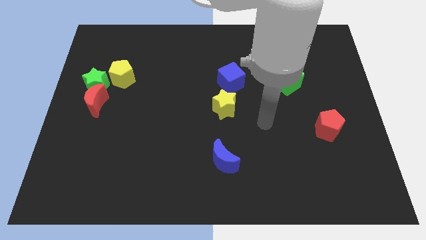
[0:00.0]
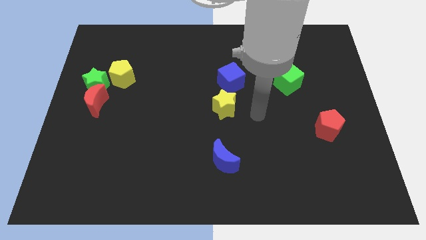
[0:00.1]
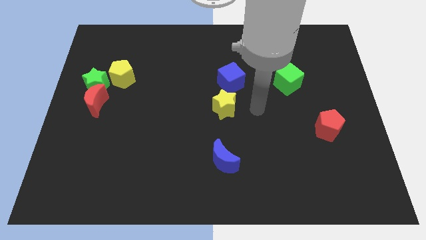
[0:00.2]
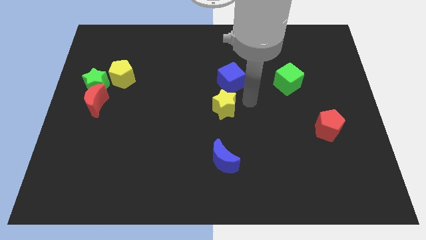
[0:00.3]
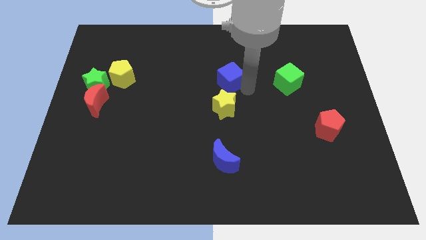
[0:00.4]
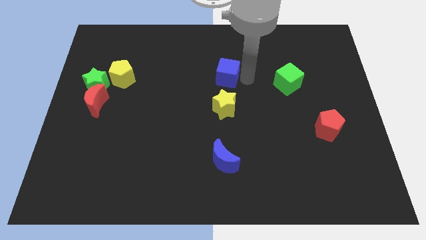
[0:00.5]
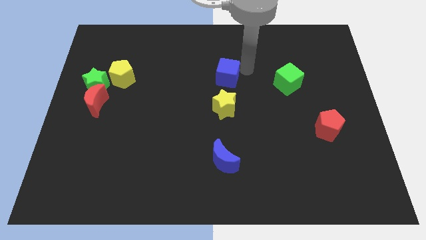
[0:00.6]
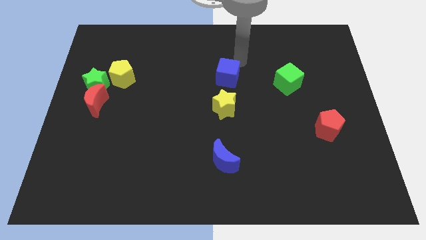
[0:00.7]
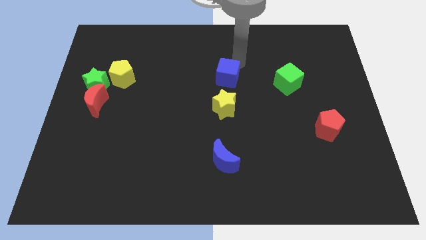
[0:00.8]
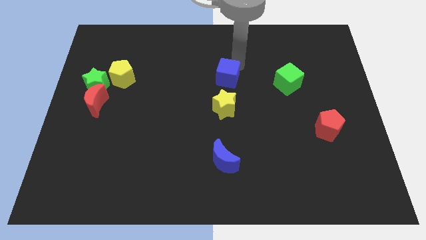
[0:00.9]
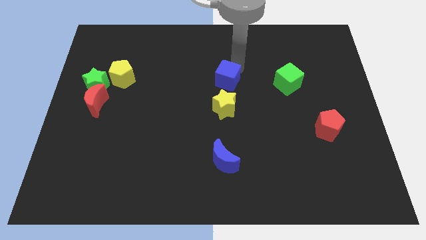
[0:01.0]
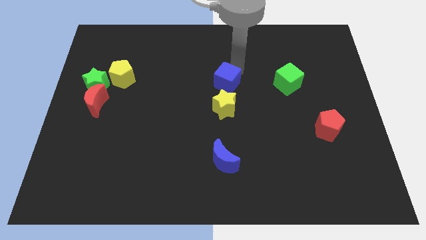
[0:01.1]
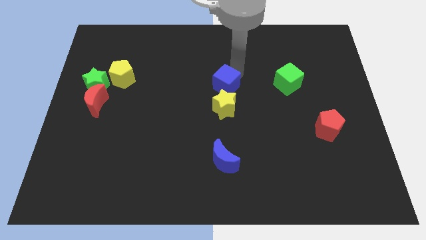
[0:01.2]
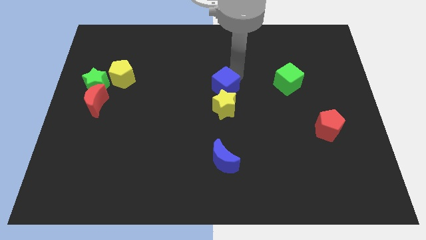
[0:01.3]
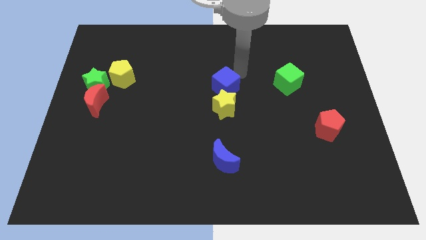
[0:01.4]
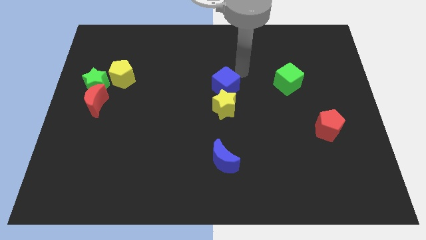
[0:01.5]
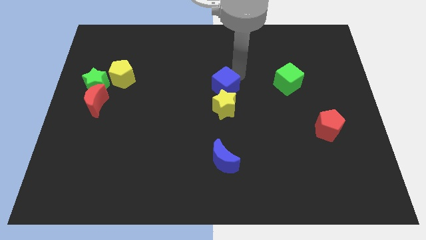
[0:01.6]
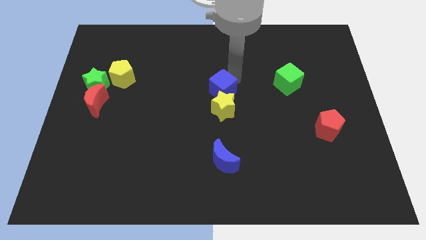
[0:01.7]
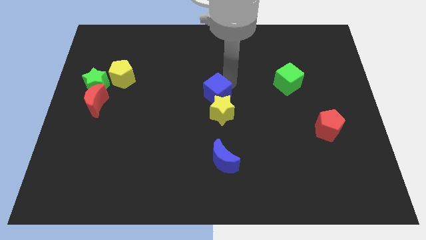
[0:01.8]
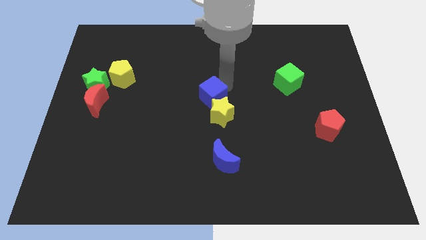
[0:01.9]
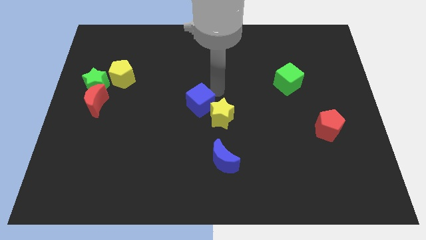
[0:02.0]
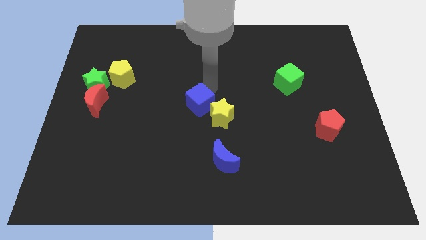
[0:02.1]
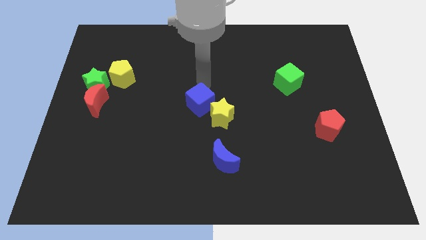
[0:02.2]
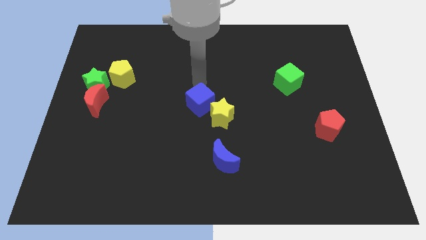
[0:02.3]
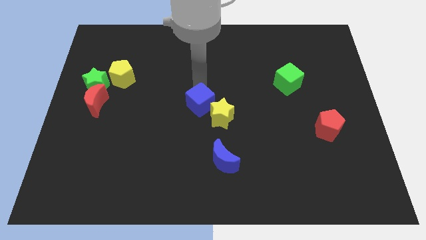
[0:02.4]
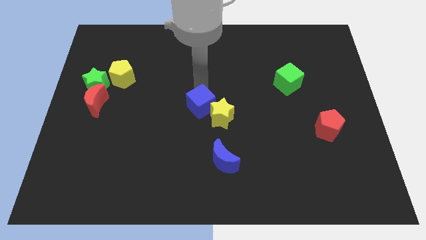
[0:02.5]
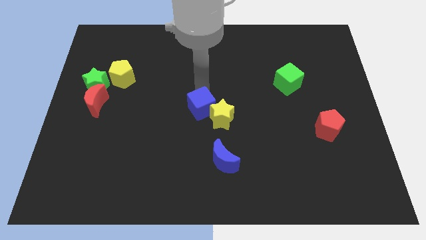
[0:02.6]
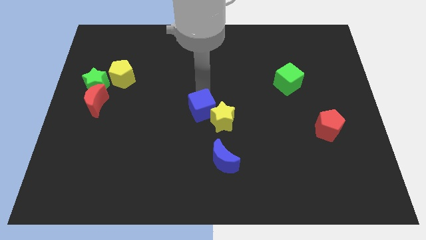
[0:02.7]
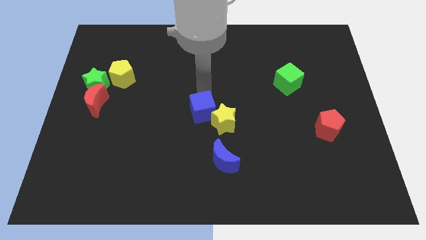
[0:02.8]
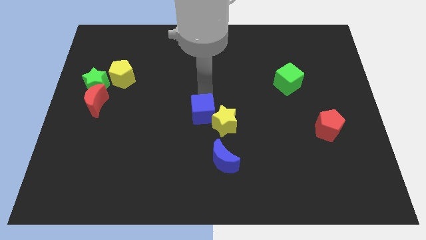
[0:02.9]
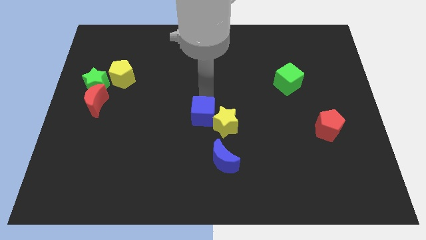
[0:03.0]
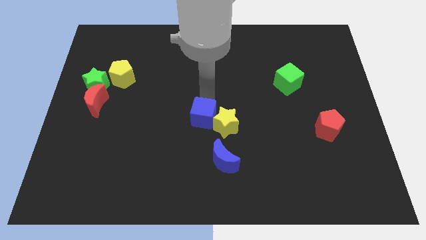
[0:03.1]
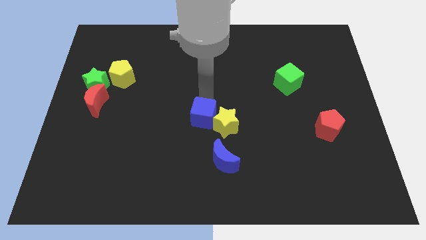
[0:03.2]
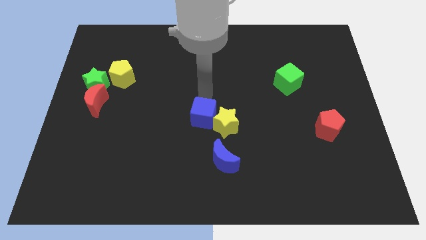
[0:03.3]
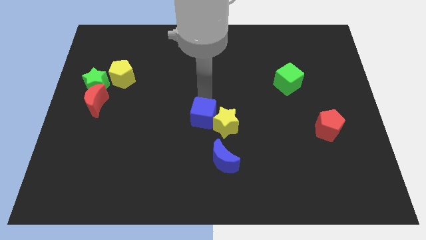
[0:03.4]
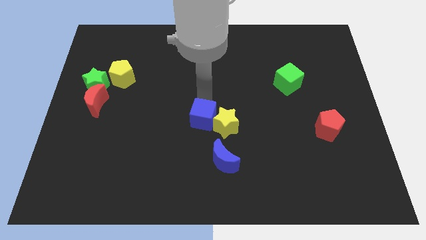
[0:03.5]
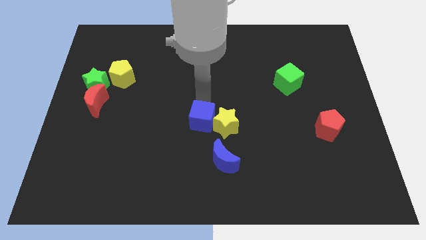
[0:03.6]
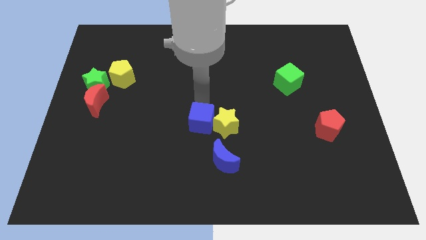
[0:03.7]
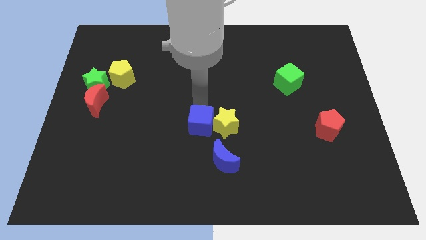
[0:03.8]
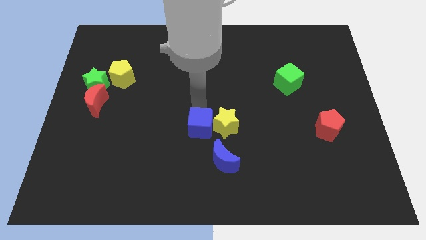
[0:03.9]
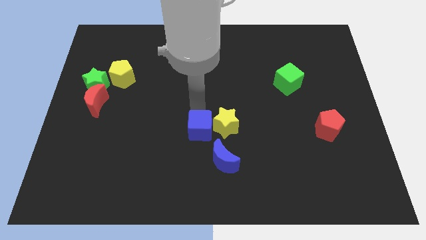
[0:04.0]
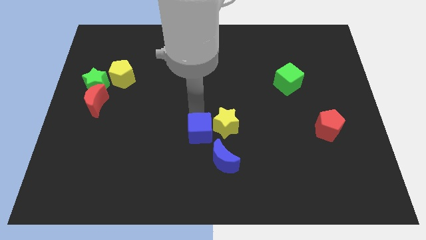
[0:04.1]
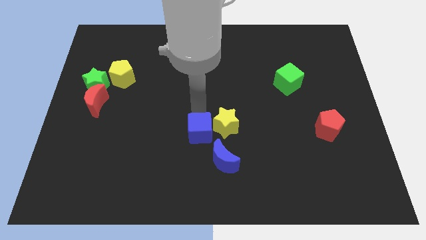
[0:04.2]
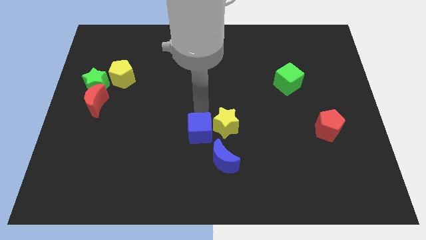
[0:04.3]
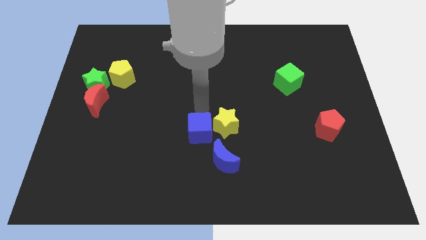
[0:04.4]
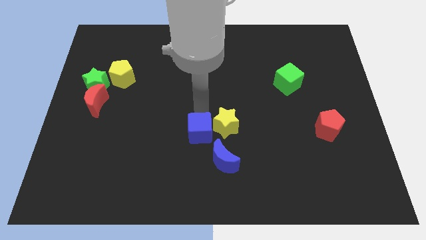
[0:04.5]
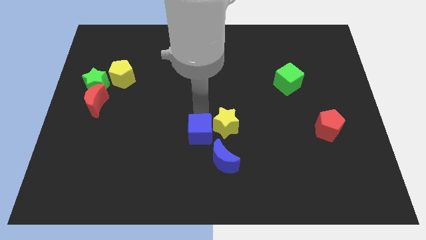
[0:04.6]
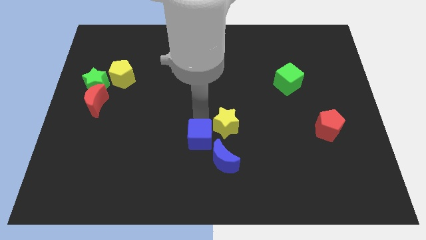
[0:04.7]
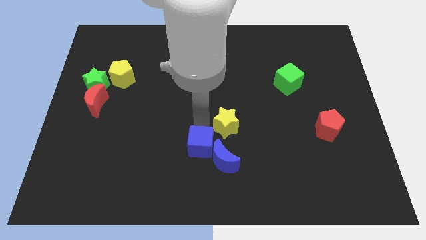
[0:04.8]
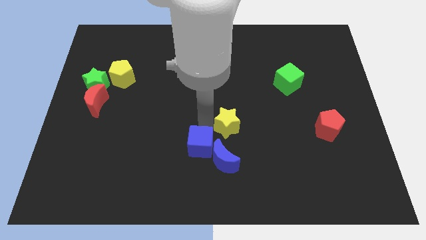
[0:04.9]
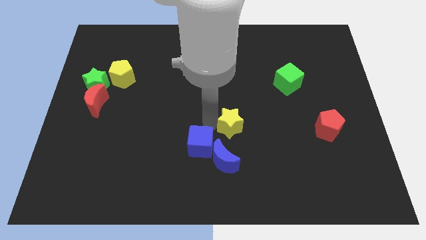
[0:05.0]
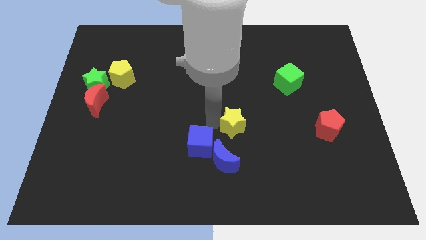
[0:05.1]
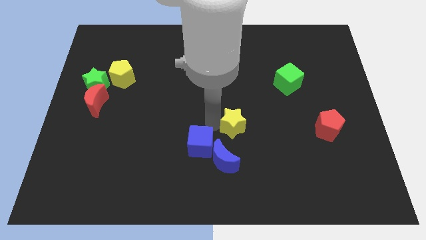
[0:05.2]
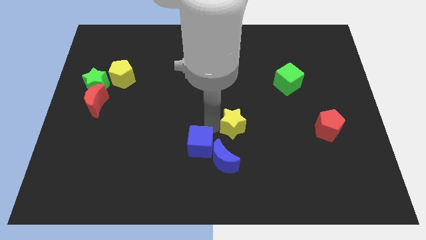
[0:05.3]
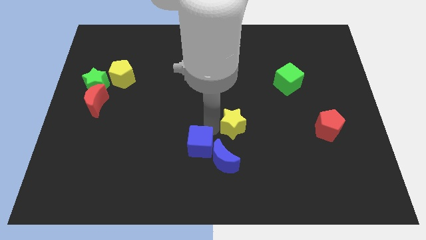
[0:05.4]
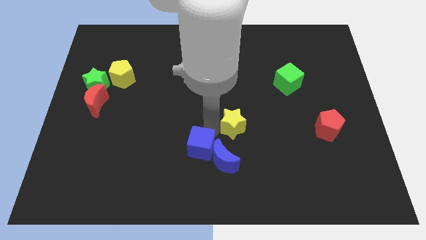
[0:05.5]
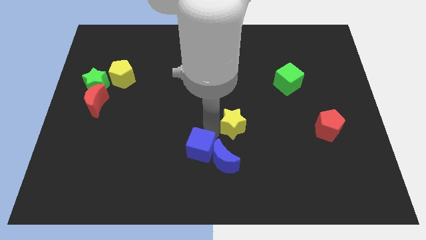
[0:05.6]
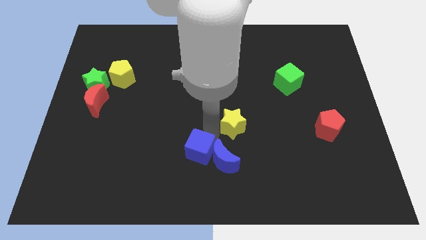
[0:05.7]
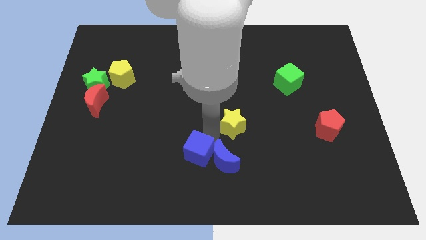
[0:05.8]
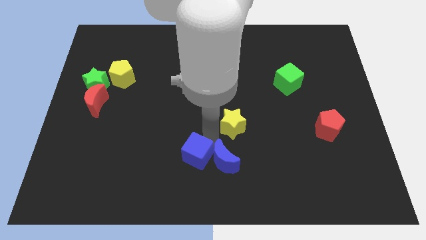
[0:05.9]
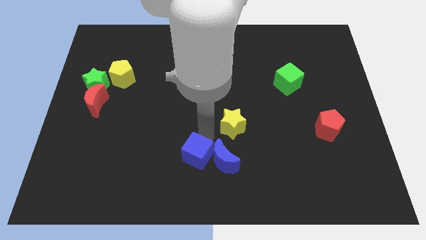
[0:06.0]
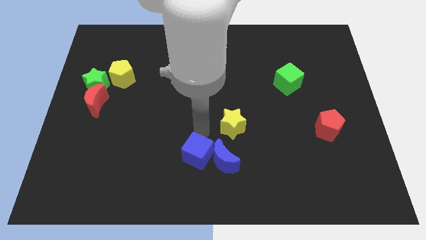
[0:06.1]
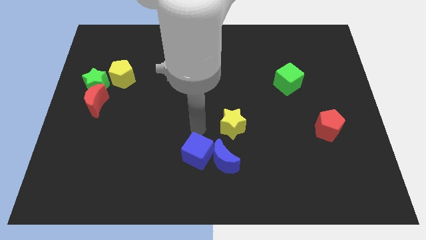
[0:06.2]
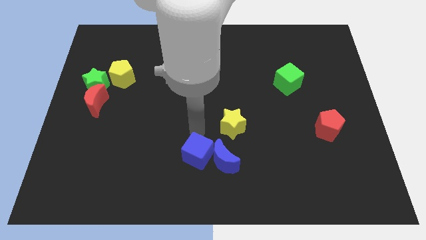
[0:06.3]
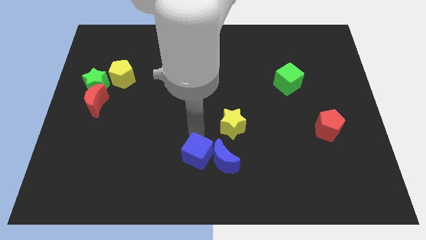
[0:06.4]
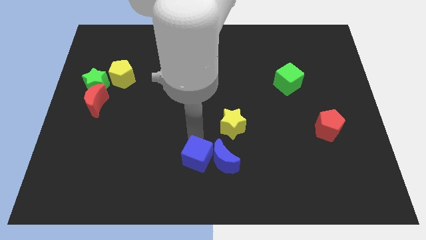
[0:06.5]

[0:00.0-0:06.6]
push the blue cube to the bottom left side of the blue moon

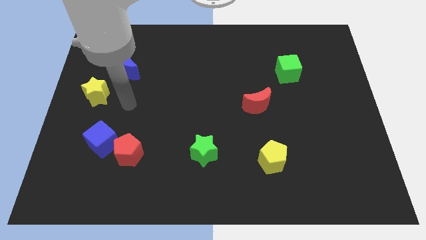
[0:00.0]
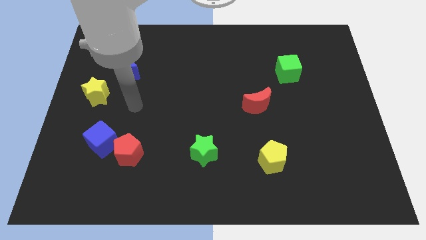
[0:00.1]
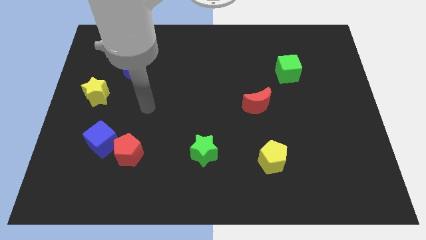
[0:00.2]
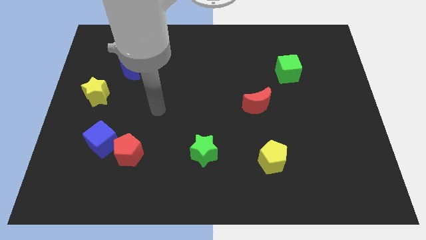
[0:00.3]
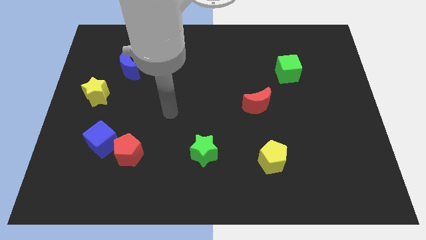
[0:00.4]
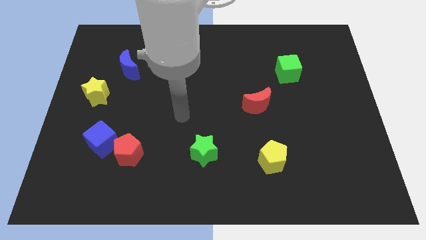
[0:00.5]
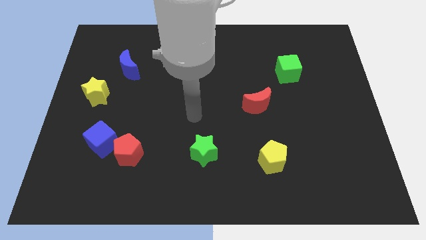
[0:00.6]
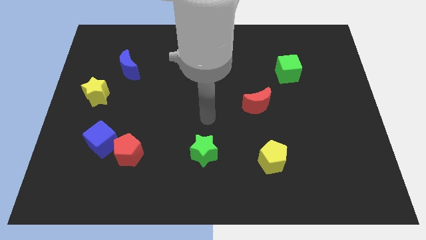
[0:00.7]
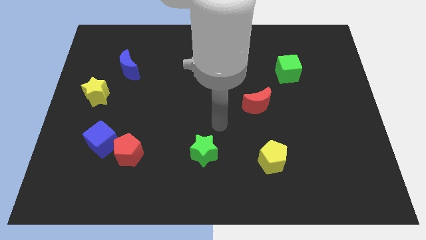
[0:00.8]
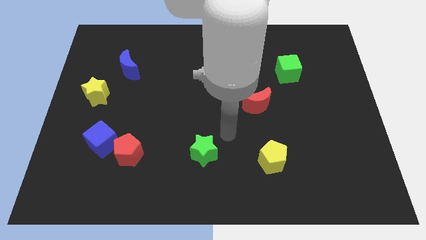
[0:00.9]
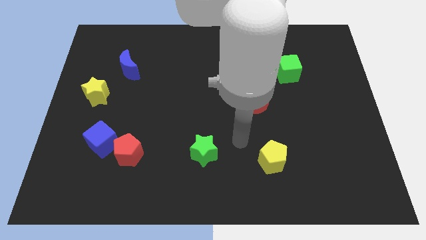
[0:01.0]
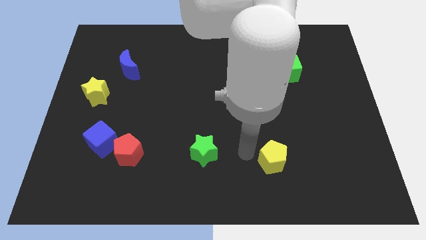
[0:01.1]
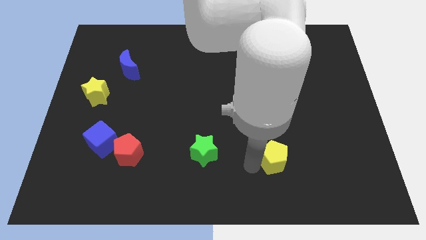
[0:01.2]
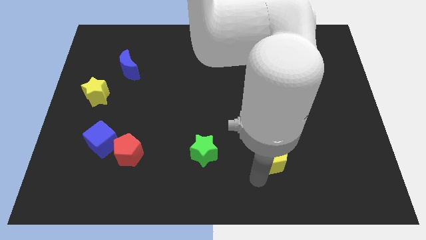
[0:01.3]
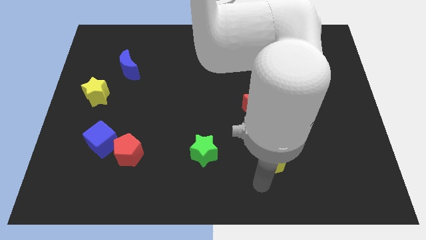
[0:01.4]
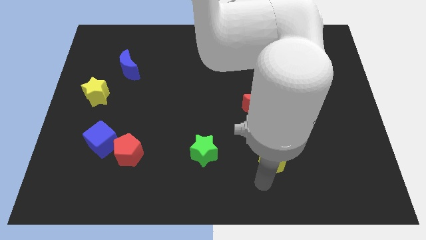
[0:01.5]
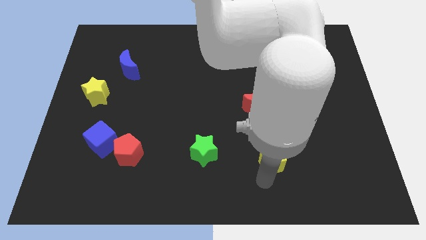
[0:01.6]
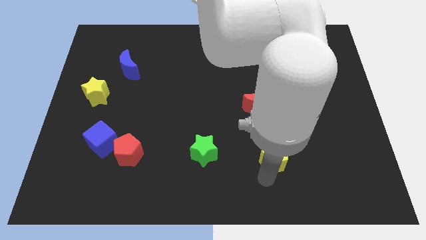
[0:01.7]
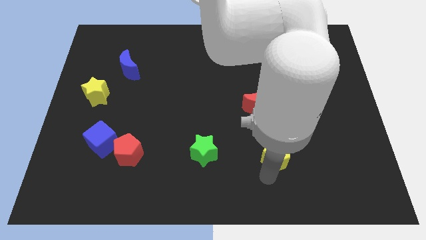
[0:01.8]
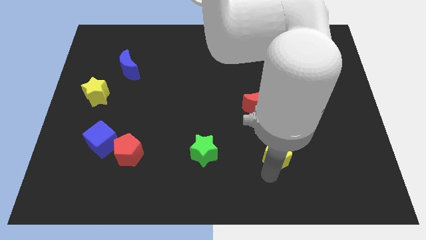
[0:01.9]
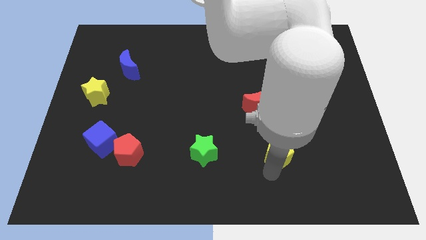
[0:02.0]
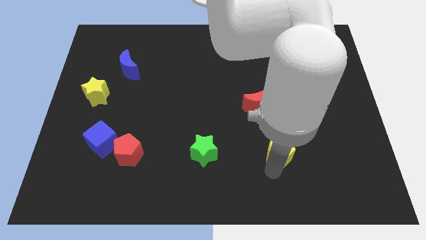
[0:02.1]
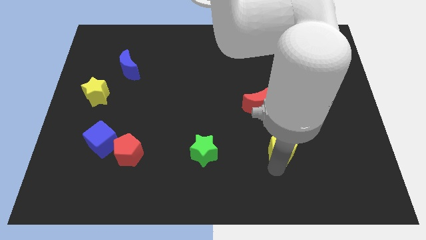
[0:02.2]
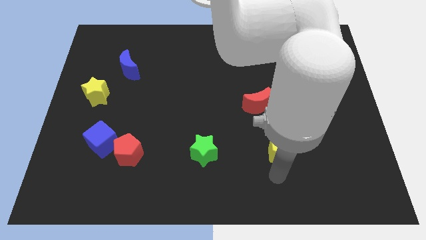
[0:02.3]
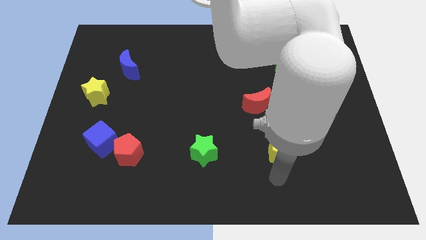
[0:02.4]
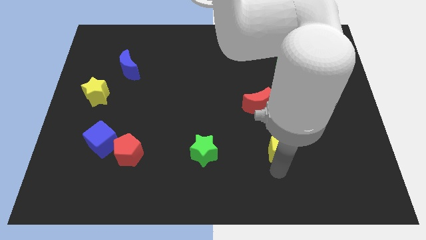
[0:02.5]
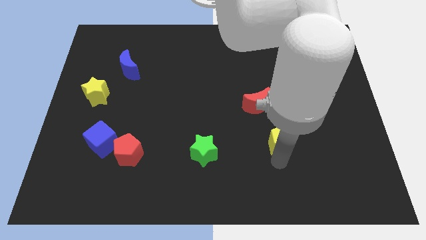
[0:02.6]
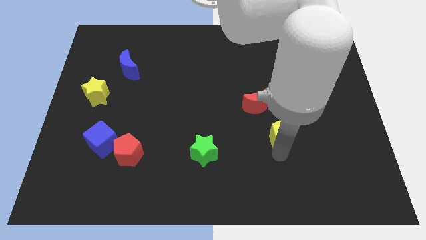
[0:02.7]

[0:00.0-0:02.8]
slide the yellow pentagon diagonally down and to the right of the red moon
